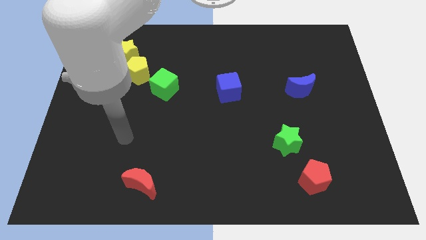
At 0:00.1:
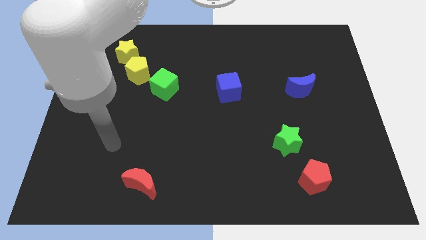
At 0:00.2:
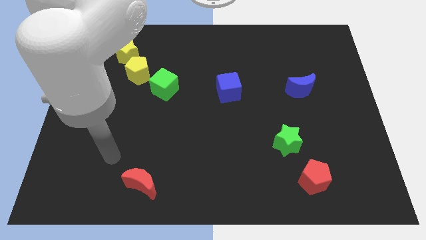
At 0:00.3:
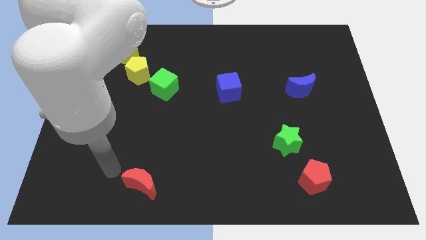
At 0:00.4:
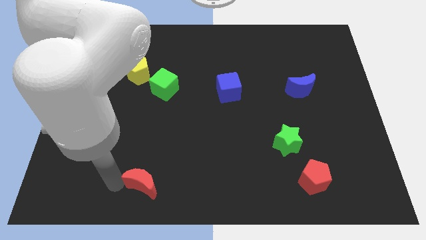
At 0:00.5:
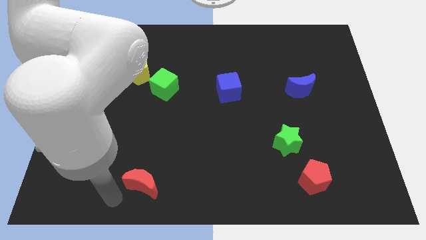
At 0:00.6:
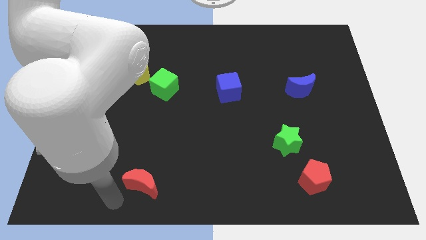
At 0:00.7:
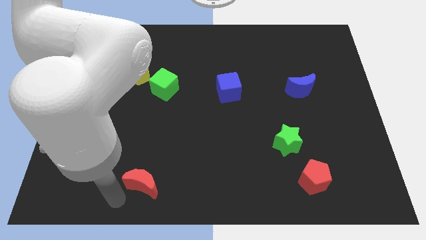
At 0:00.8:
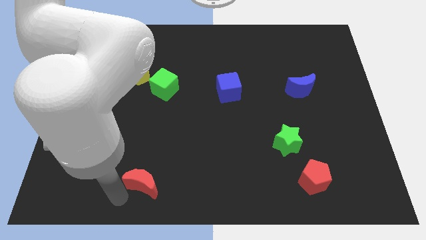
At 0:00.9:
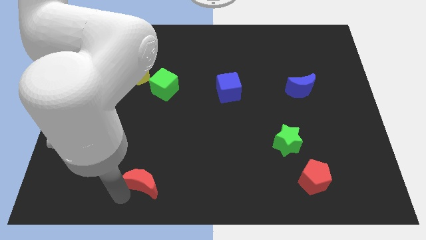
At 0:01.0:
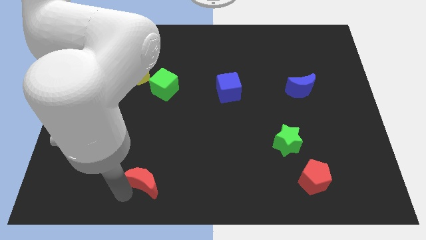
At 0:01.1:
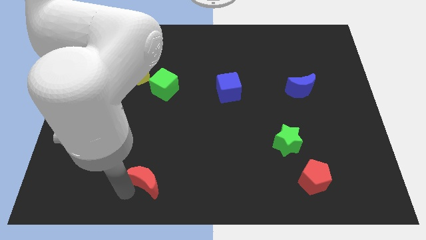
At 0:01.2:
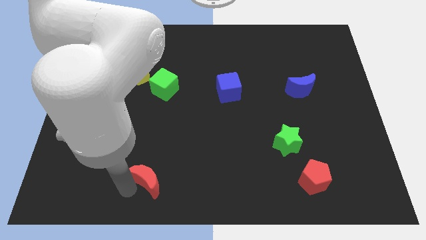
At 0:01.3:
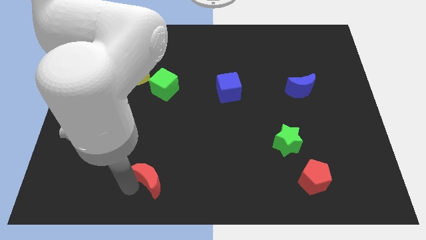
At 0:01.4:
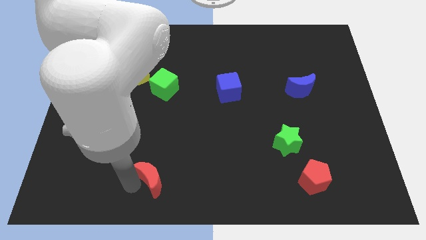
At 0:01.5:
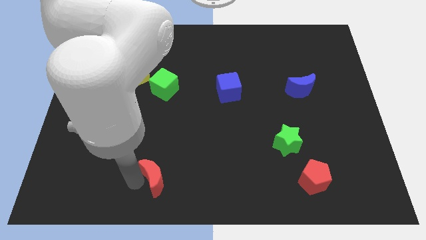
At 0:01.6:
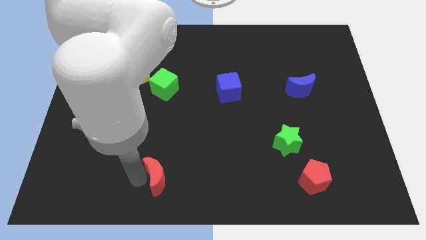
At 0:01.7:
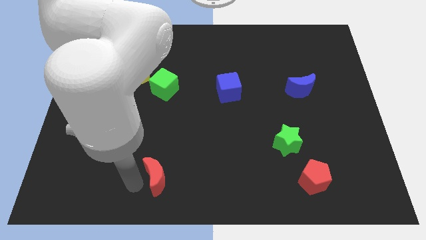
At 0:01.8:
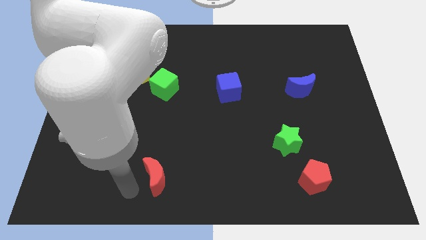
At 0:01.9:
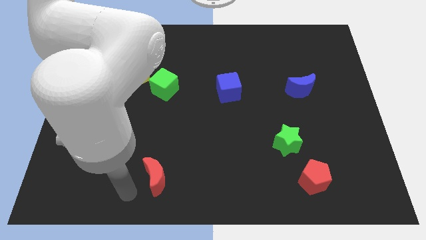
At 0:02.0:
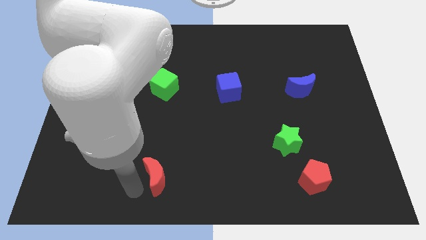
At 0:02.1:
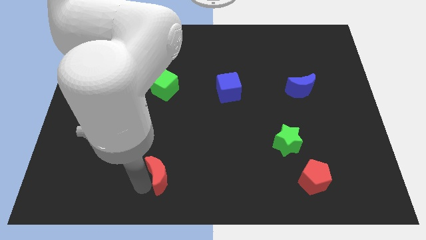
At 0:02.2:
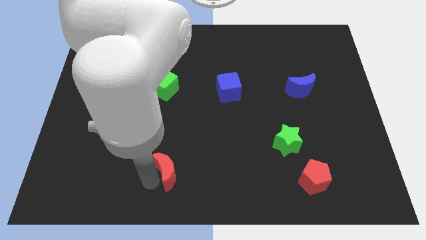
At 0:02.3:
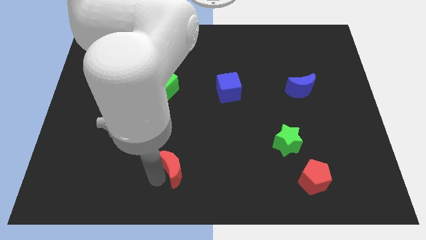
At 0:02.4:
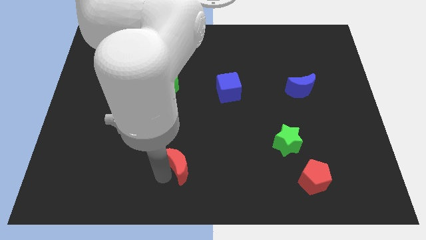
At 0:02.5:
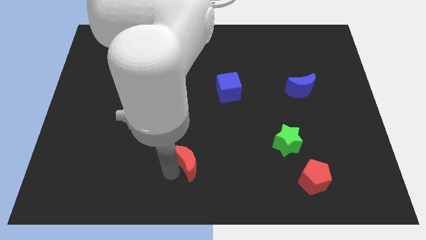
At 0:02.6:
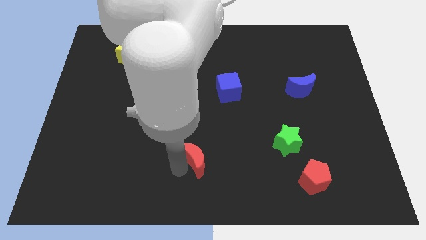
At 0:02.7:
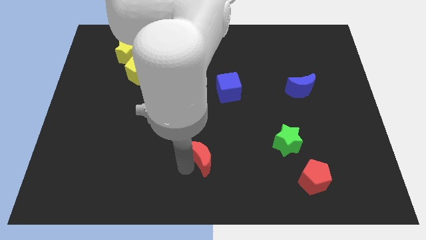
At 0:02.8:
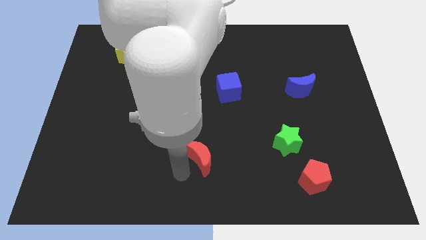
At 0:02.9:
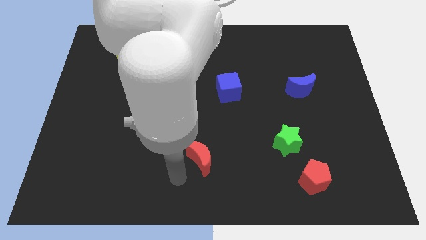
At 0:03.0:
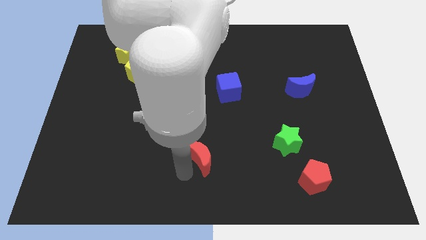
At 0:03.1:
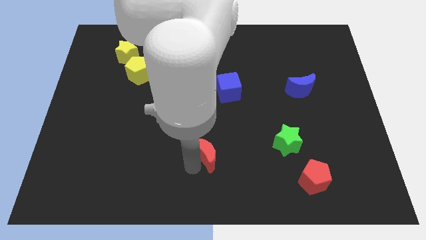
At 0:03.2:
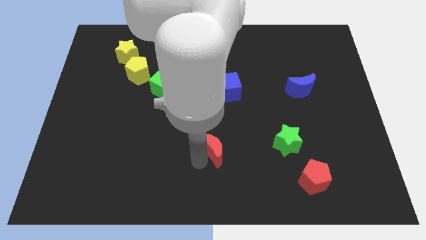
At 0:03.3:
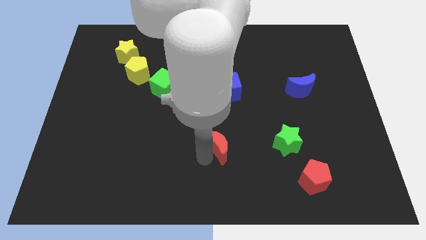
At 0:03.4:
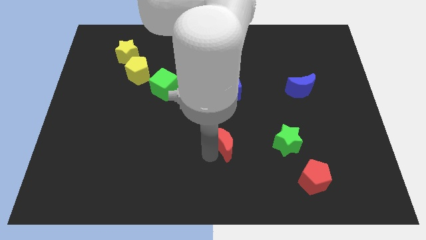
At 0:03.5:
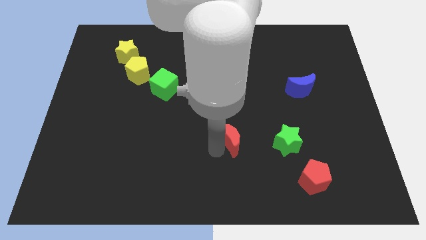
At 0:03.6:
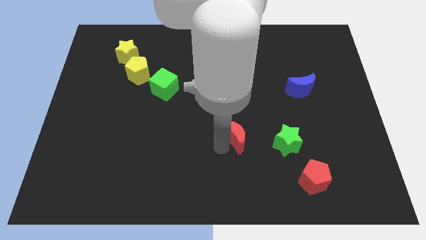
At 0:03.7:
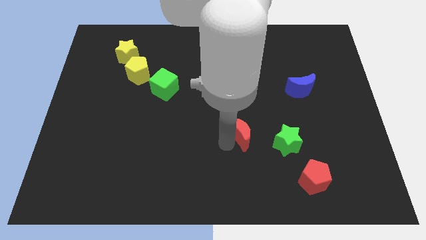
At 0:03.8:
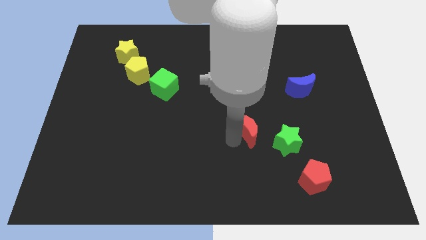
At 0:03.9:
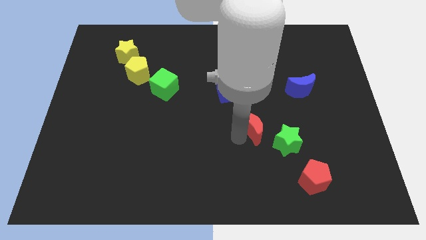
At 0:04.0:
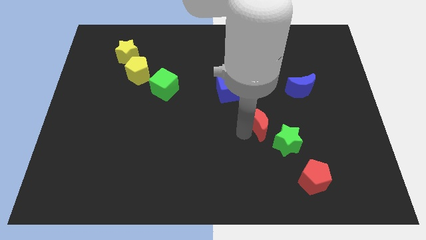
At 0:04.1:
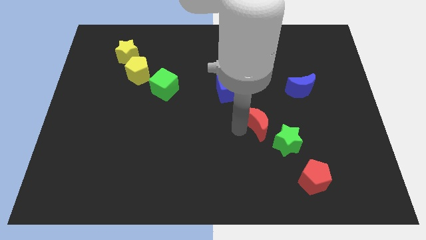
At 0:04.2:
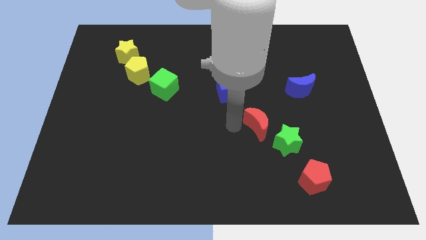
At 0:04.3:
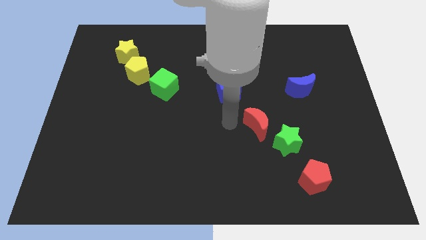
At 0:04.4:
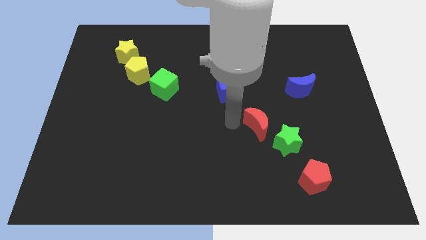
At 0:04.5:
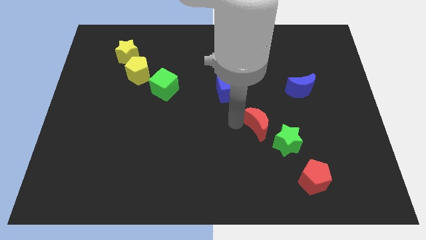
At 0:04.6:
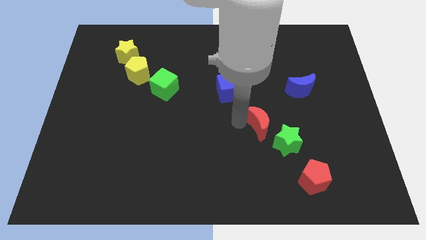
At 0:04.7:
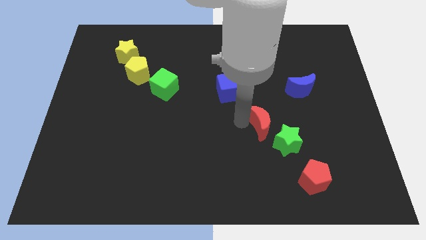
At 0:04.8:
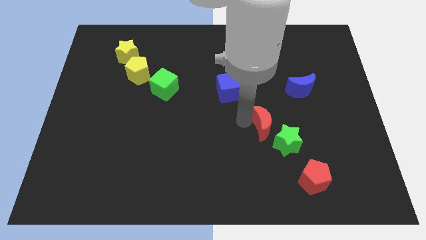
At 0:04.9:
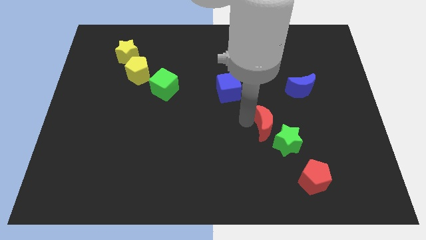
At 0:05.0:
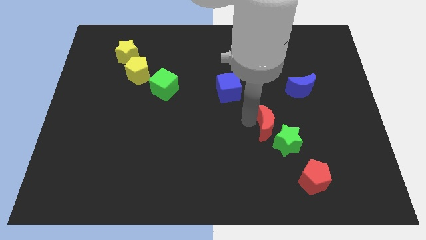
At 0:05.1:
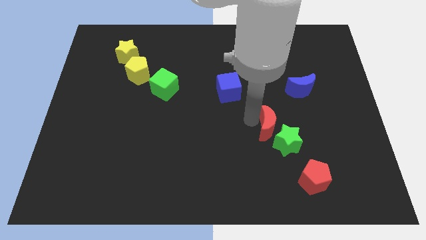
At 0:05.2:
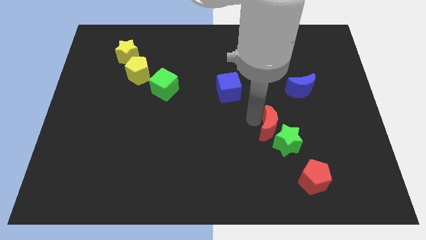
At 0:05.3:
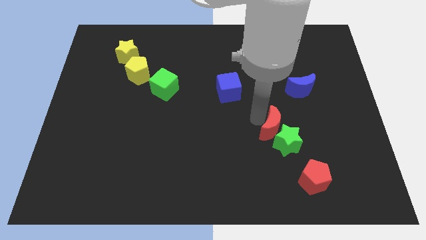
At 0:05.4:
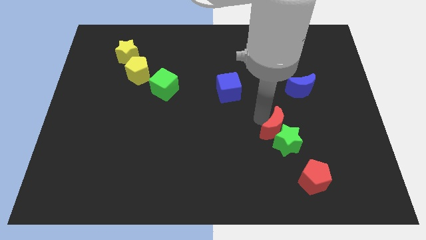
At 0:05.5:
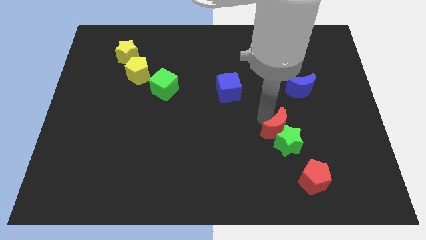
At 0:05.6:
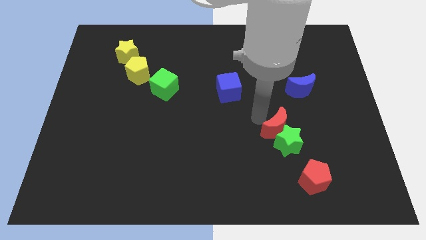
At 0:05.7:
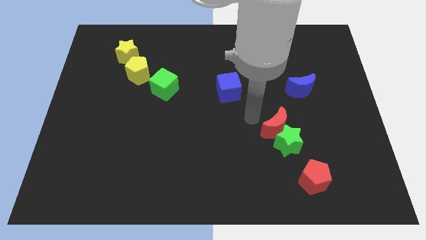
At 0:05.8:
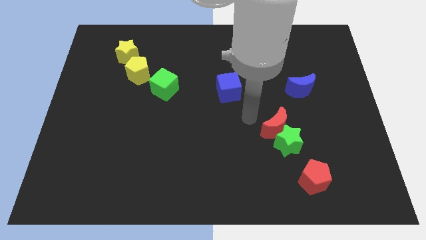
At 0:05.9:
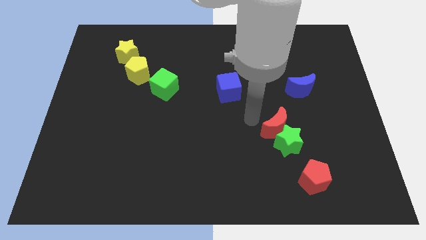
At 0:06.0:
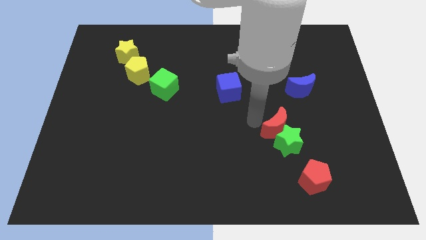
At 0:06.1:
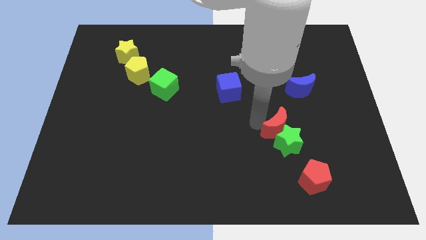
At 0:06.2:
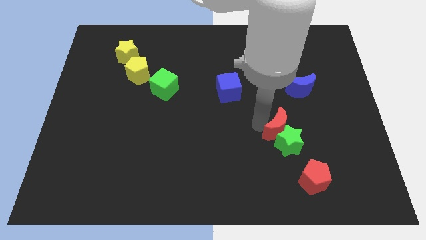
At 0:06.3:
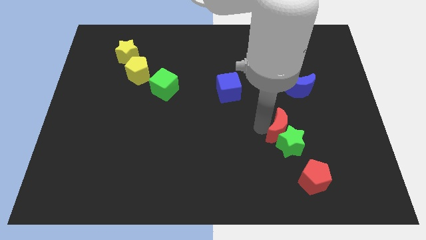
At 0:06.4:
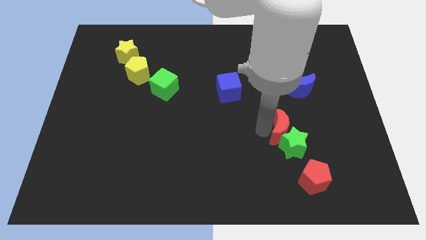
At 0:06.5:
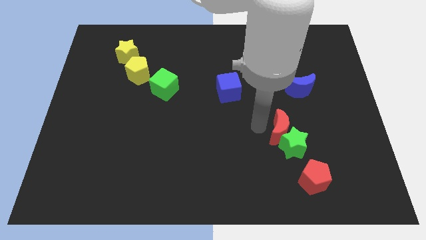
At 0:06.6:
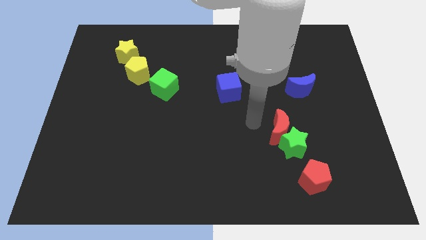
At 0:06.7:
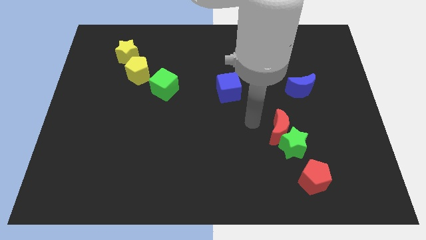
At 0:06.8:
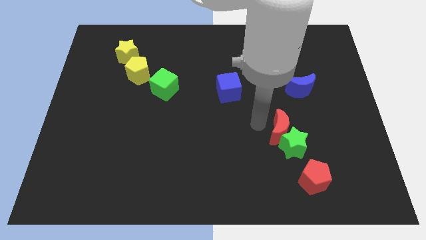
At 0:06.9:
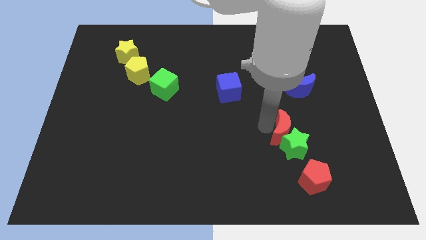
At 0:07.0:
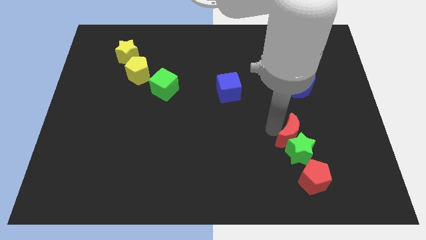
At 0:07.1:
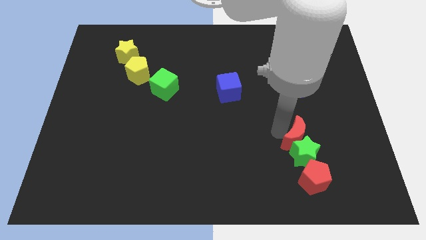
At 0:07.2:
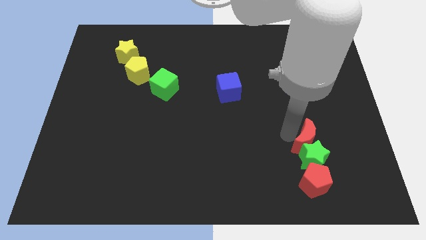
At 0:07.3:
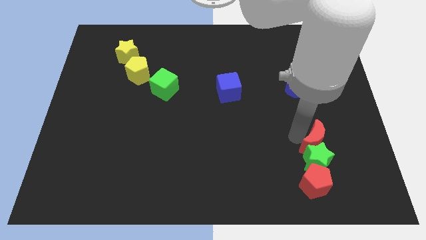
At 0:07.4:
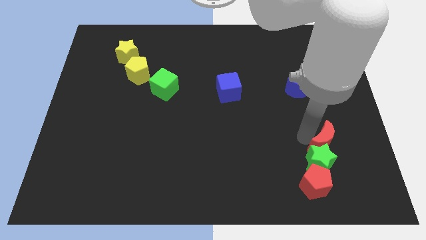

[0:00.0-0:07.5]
slide the red moon to the top right of the red pentagon
